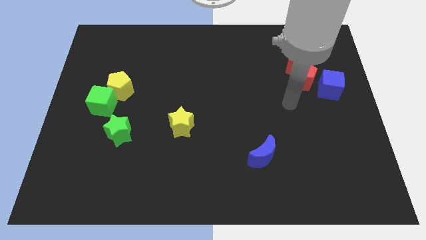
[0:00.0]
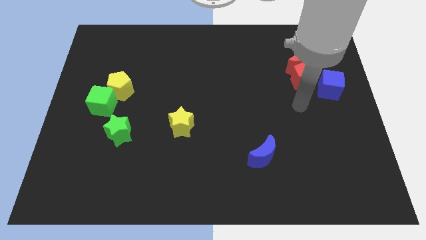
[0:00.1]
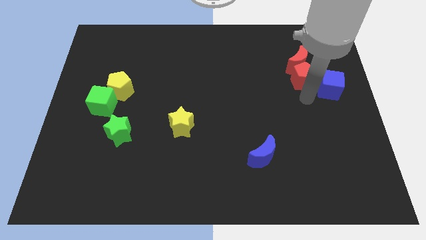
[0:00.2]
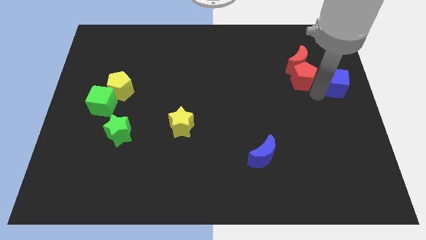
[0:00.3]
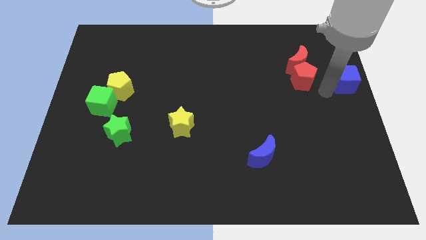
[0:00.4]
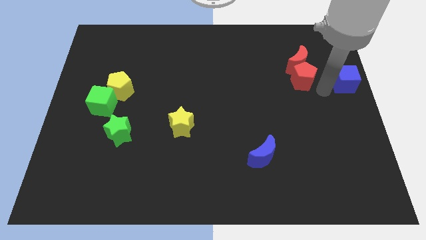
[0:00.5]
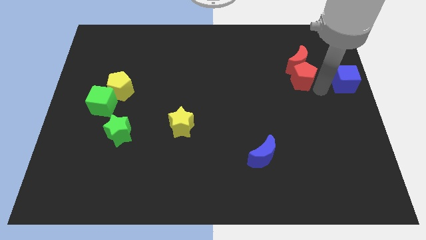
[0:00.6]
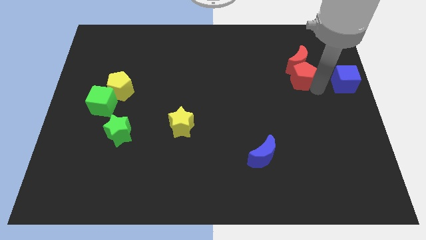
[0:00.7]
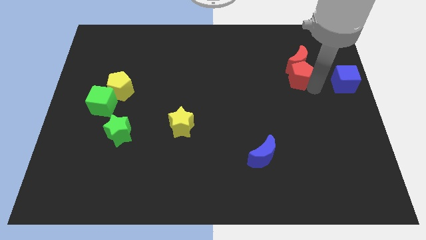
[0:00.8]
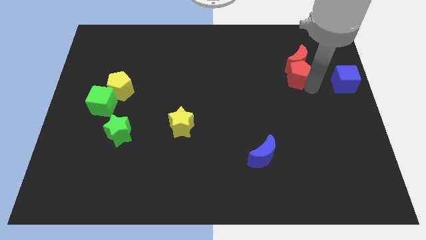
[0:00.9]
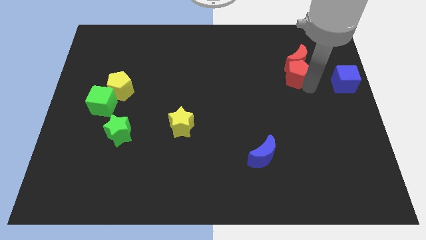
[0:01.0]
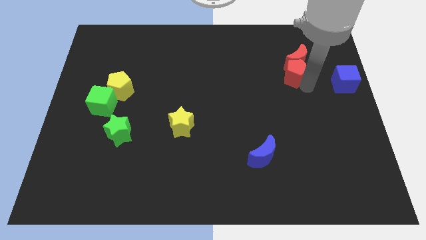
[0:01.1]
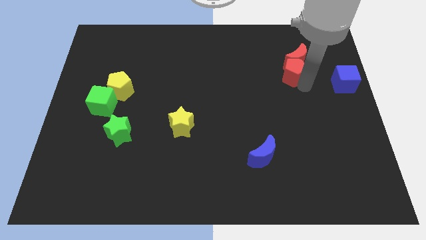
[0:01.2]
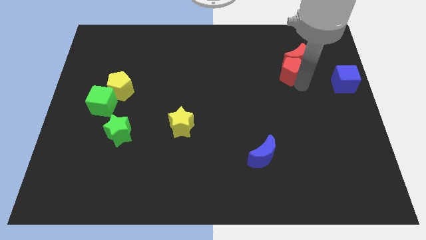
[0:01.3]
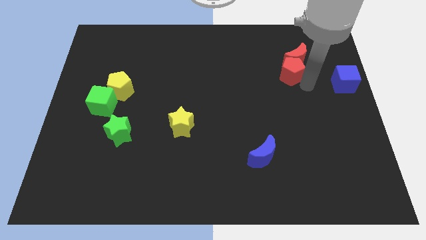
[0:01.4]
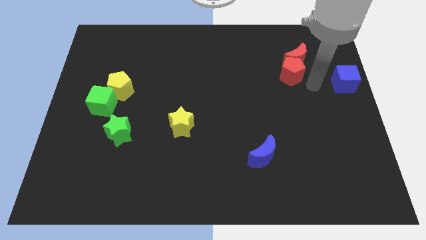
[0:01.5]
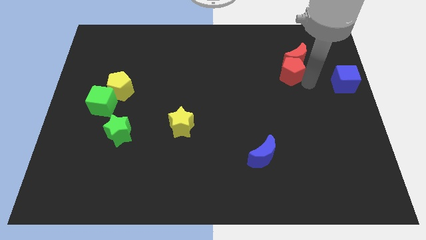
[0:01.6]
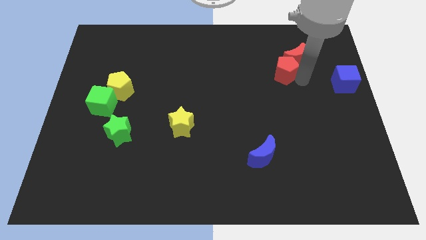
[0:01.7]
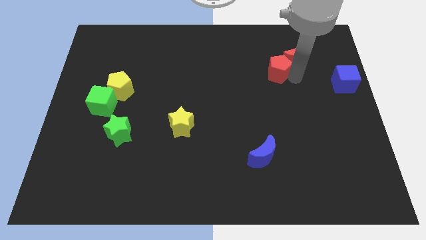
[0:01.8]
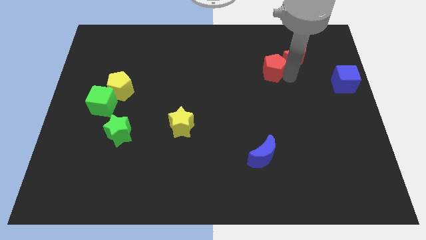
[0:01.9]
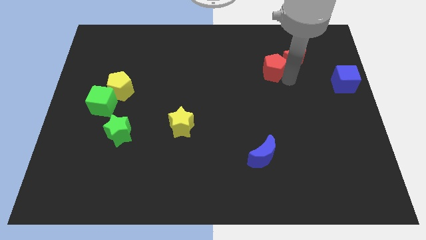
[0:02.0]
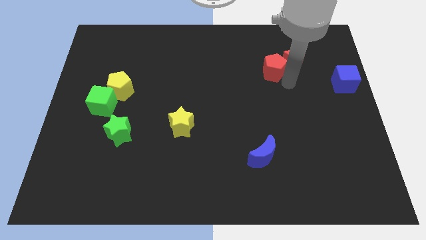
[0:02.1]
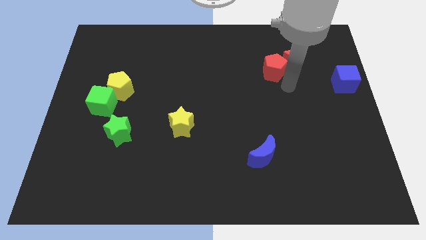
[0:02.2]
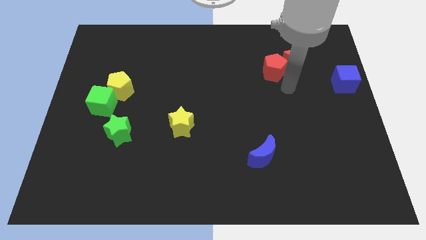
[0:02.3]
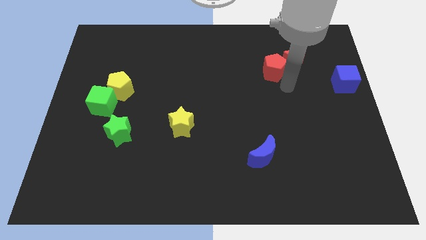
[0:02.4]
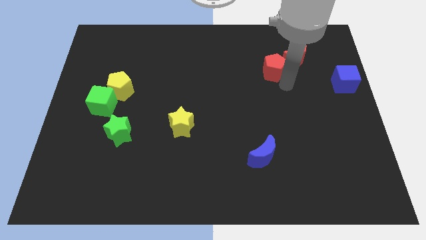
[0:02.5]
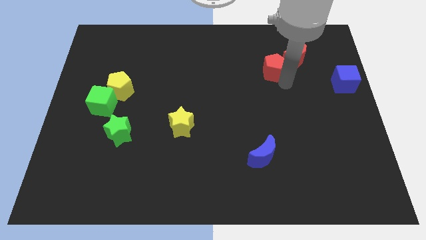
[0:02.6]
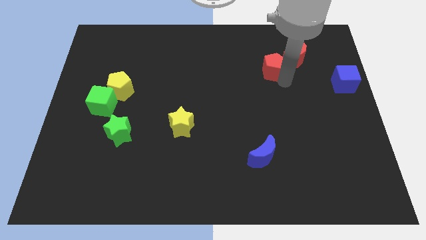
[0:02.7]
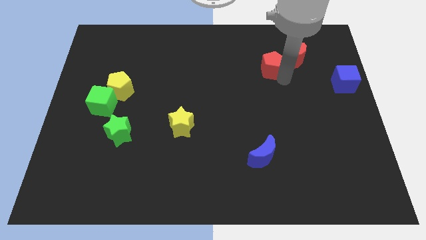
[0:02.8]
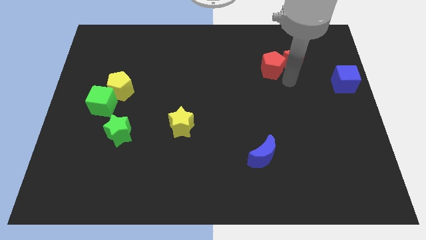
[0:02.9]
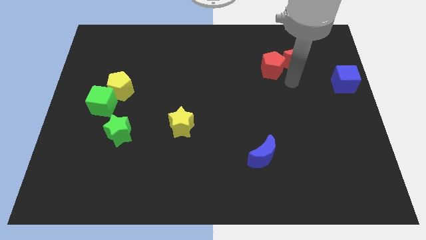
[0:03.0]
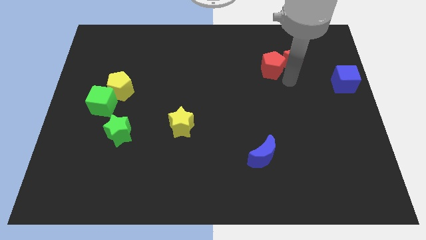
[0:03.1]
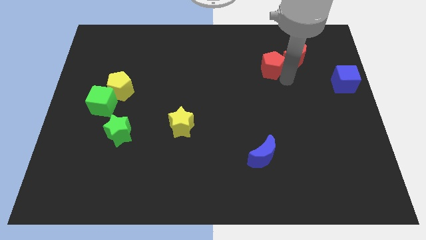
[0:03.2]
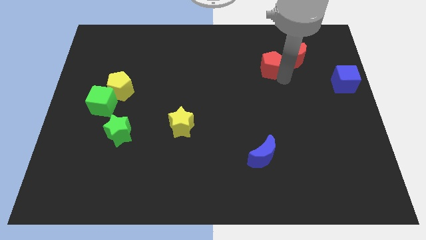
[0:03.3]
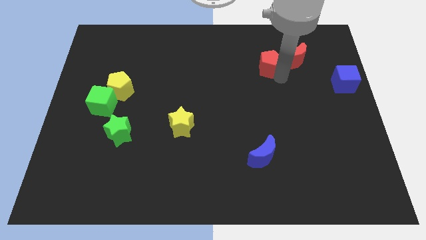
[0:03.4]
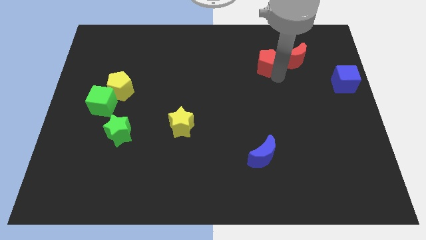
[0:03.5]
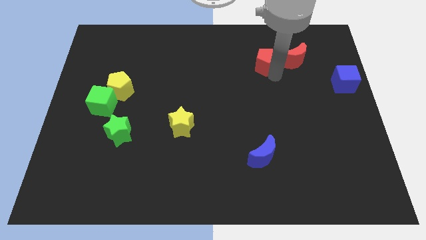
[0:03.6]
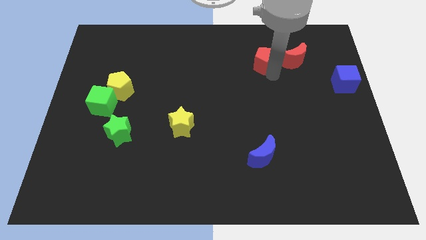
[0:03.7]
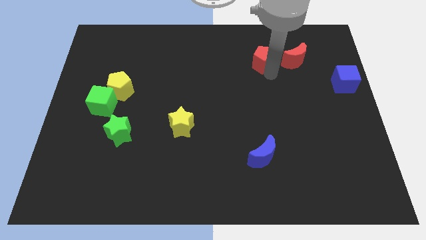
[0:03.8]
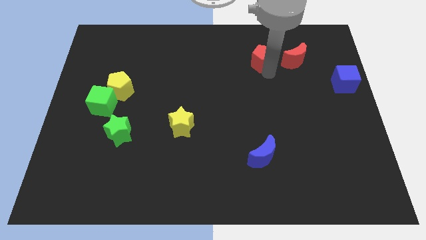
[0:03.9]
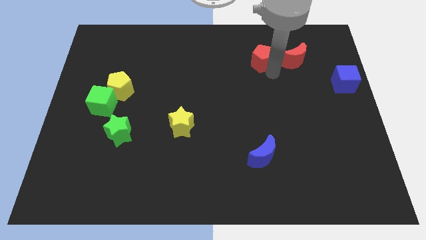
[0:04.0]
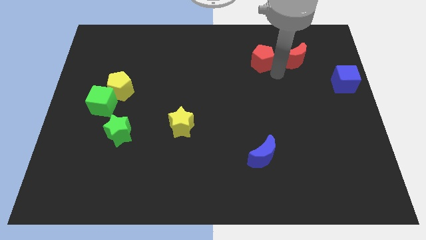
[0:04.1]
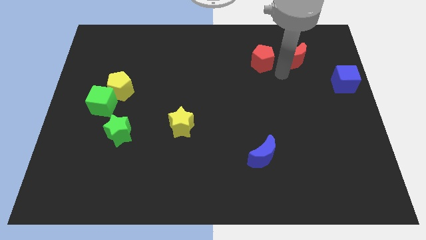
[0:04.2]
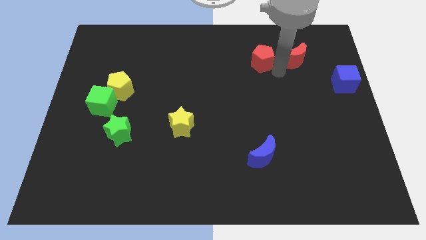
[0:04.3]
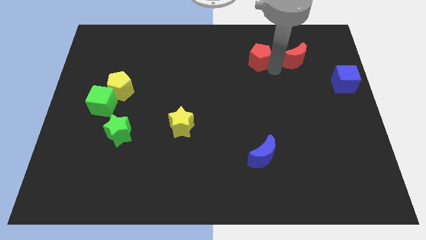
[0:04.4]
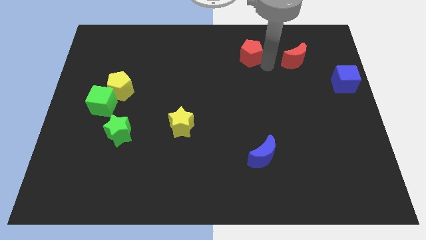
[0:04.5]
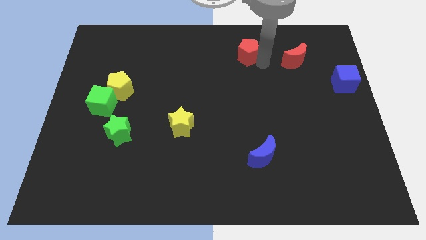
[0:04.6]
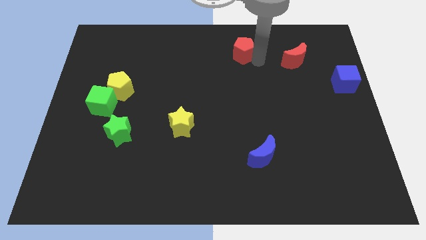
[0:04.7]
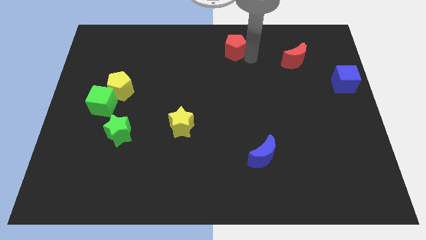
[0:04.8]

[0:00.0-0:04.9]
push the red pentagon to the towards your base
